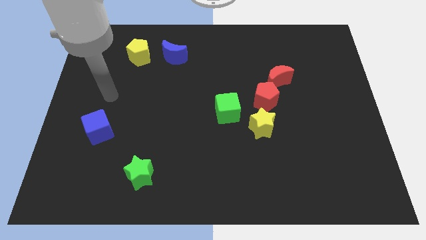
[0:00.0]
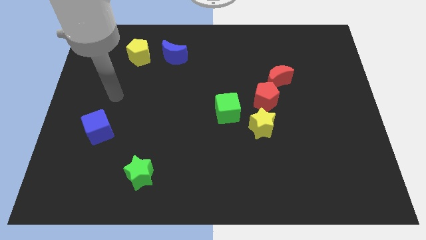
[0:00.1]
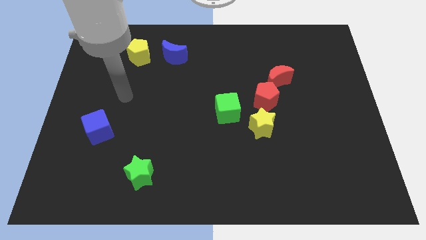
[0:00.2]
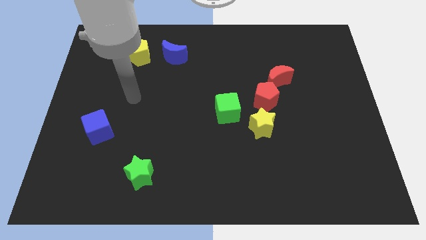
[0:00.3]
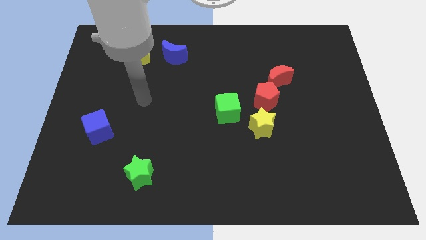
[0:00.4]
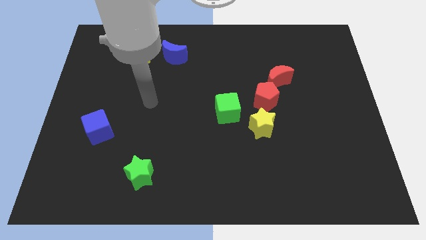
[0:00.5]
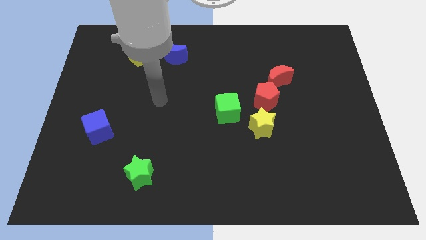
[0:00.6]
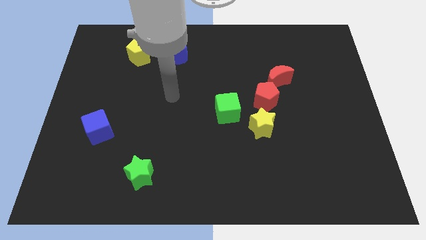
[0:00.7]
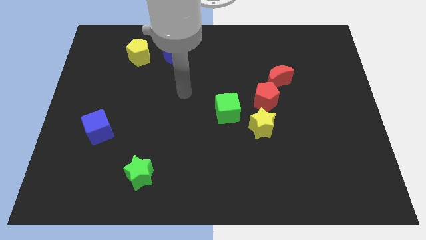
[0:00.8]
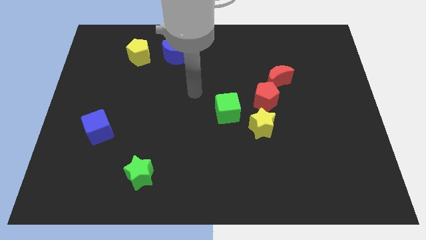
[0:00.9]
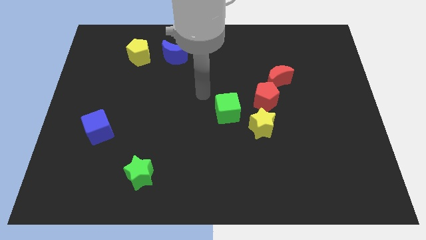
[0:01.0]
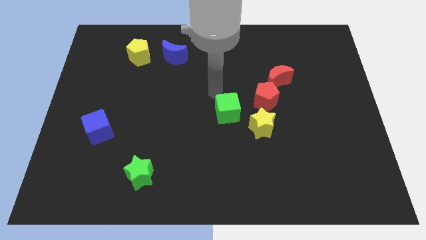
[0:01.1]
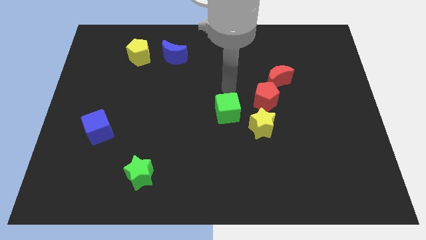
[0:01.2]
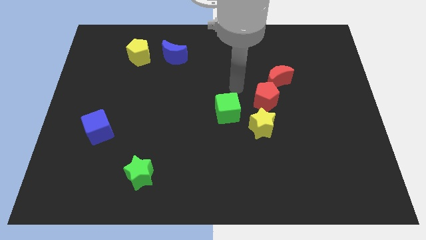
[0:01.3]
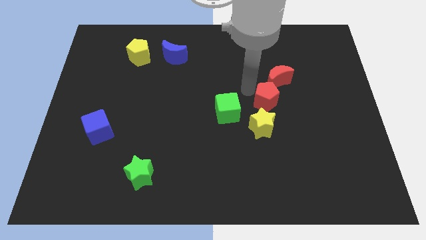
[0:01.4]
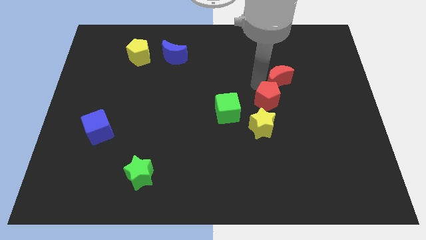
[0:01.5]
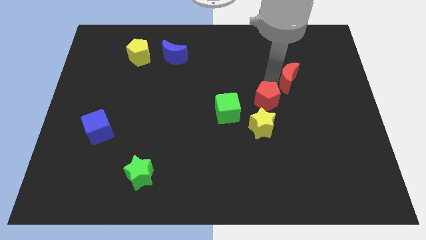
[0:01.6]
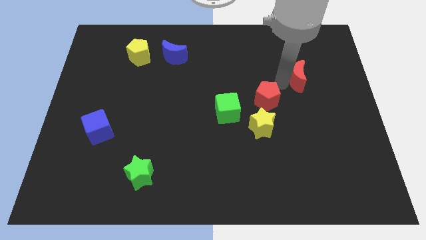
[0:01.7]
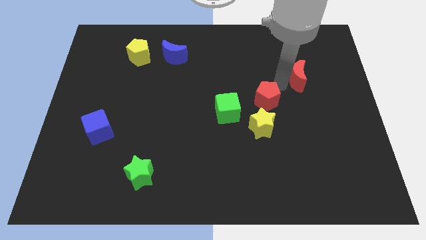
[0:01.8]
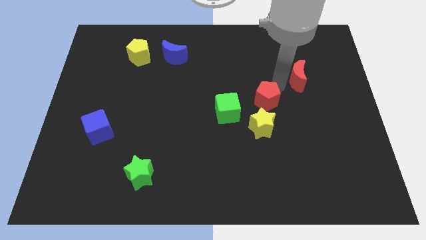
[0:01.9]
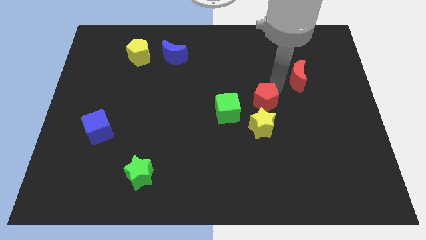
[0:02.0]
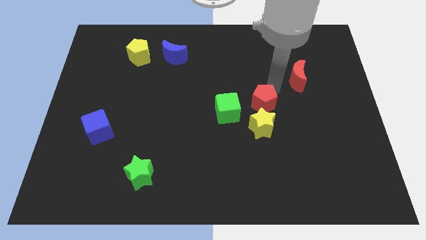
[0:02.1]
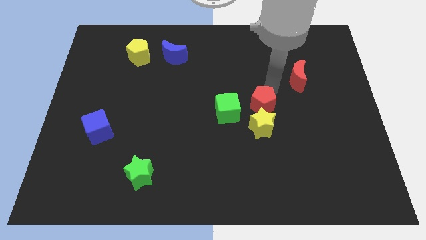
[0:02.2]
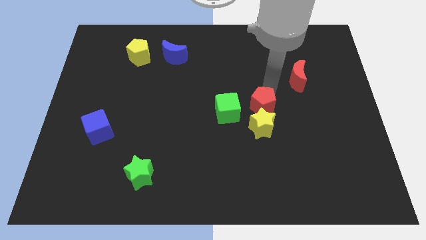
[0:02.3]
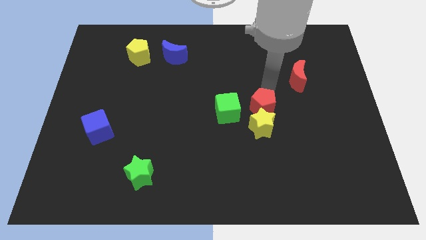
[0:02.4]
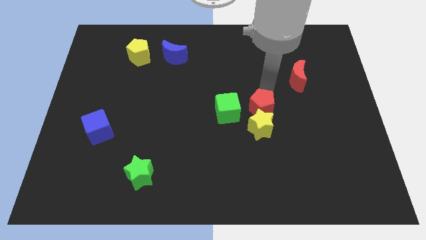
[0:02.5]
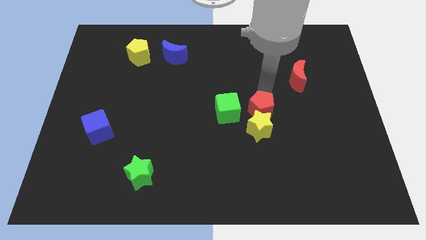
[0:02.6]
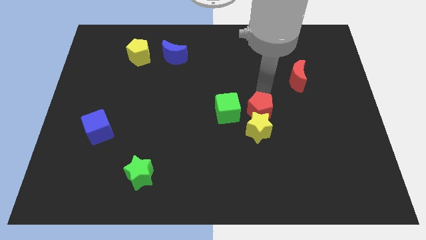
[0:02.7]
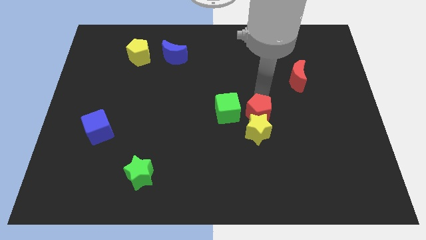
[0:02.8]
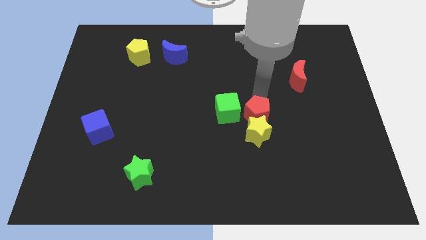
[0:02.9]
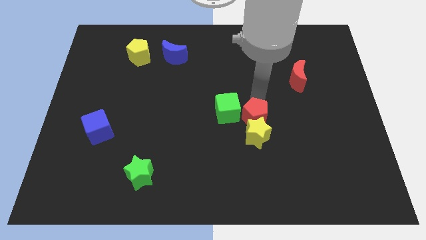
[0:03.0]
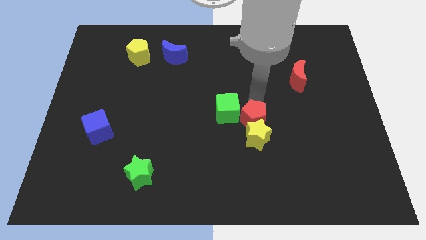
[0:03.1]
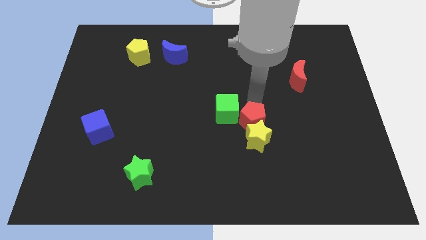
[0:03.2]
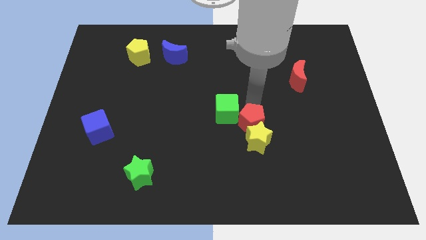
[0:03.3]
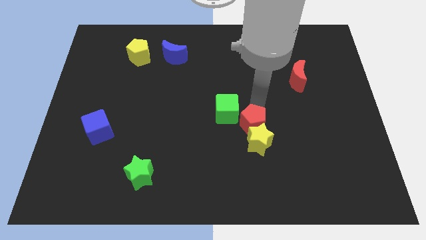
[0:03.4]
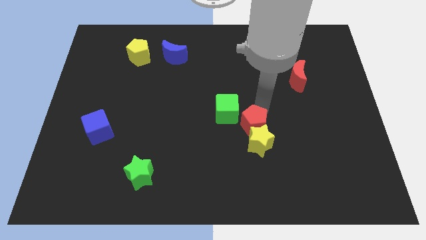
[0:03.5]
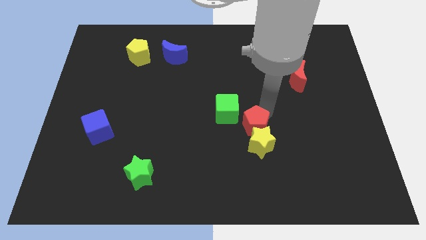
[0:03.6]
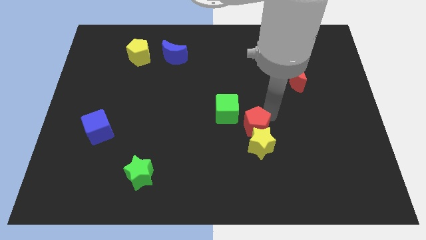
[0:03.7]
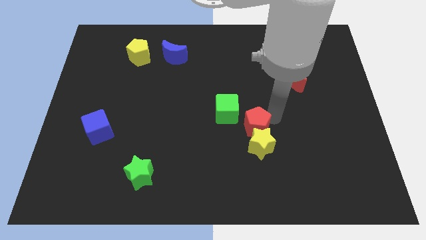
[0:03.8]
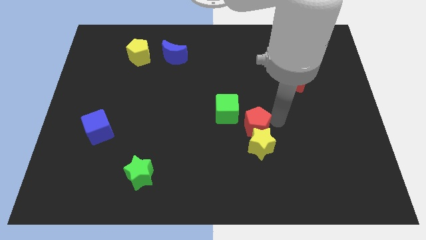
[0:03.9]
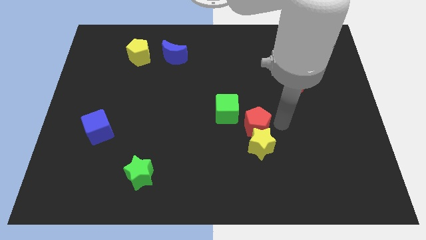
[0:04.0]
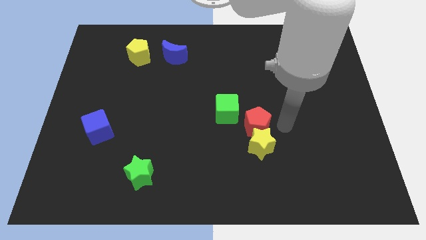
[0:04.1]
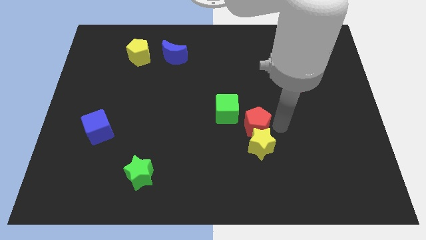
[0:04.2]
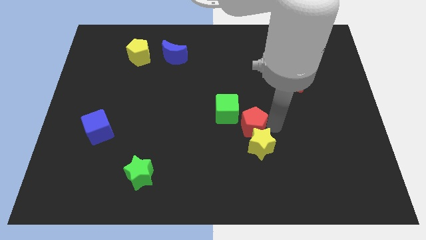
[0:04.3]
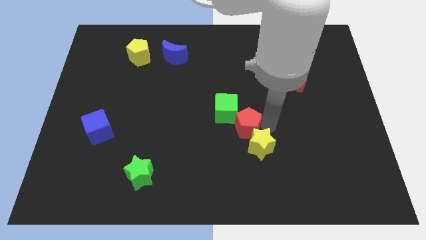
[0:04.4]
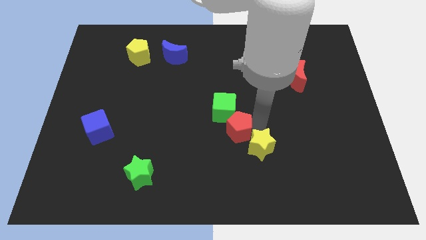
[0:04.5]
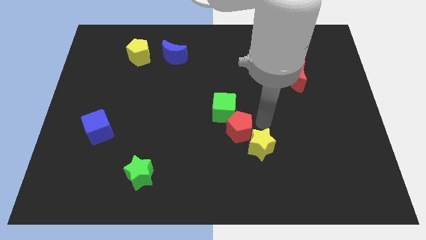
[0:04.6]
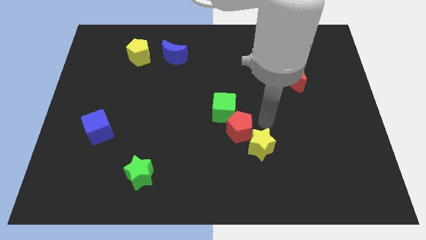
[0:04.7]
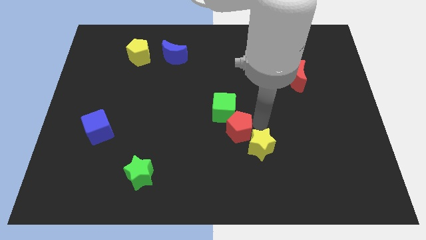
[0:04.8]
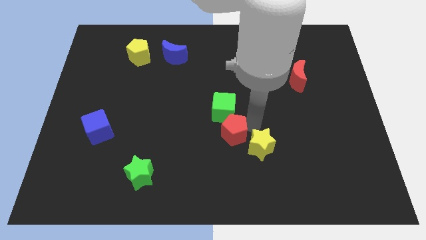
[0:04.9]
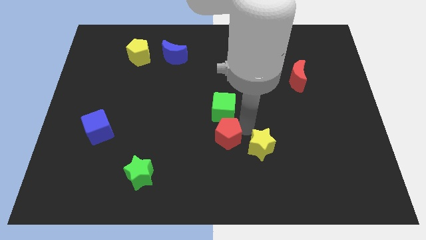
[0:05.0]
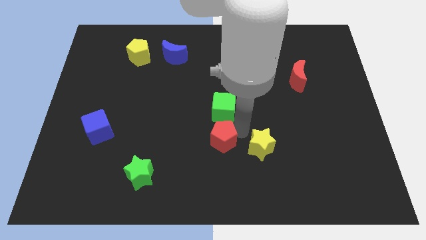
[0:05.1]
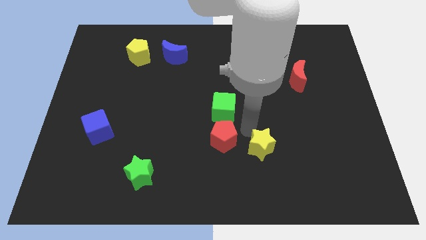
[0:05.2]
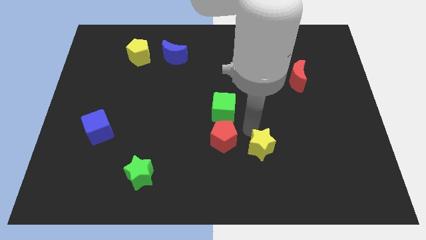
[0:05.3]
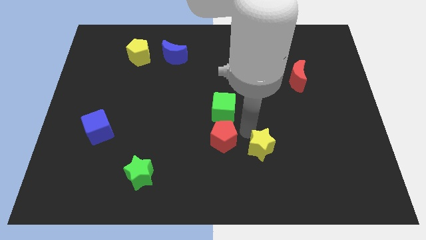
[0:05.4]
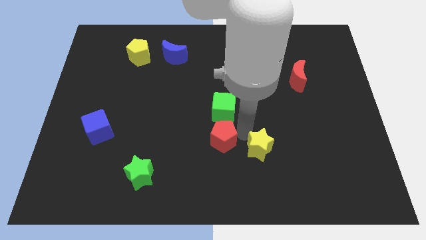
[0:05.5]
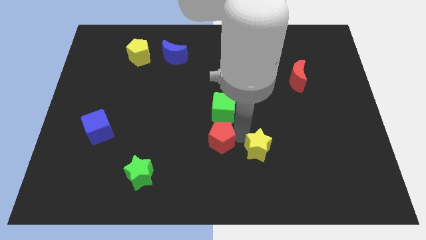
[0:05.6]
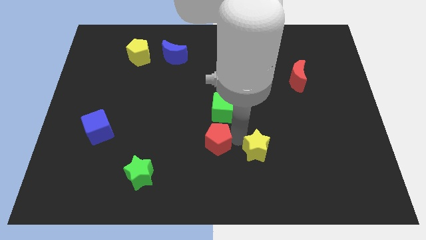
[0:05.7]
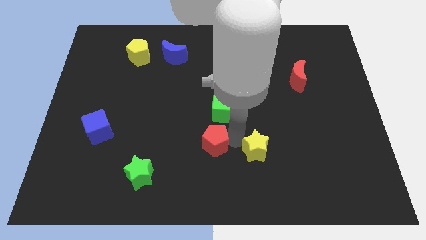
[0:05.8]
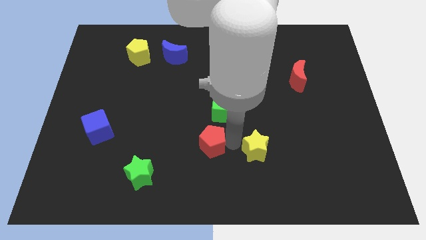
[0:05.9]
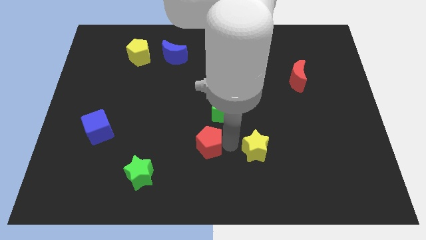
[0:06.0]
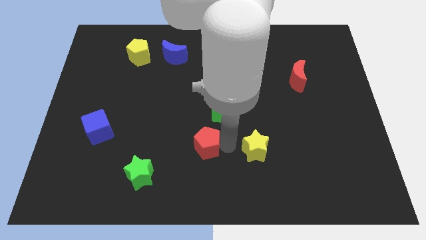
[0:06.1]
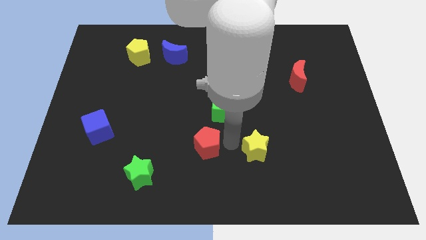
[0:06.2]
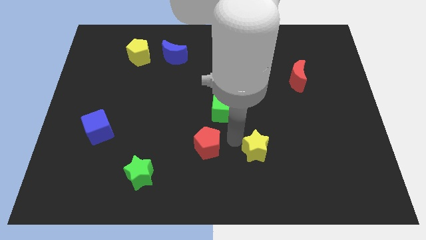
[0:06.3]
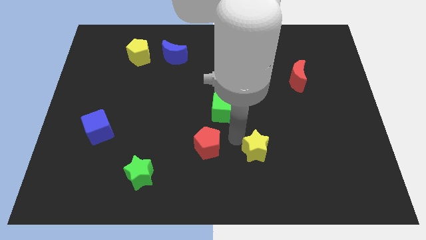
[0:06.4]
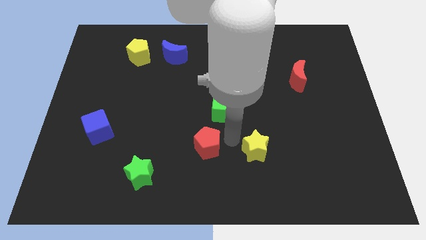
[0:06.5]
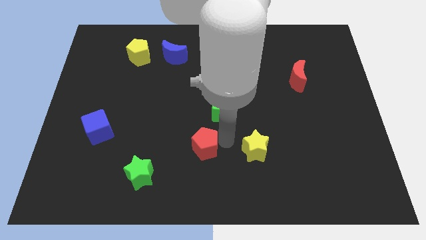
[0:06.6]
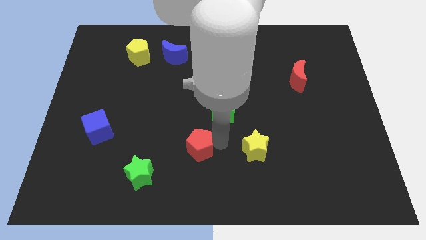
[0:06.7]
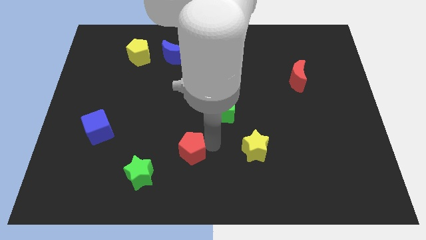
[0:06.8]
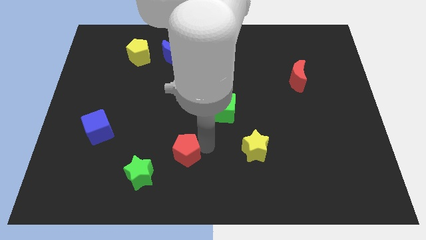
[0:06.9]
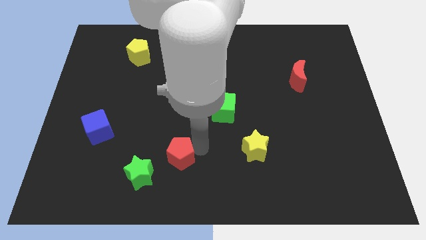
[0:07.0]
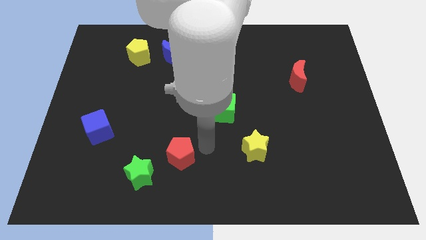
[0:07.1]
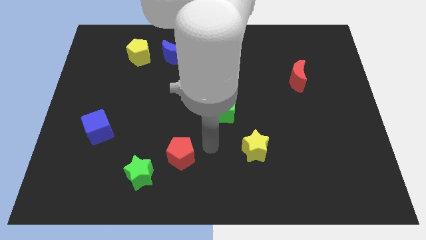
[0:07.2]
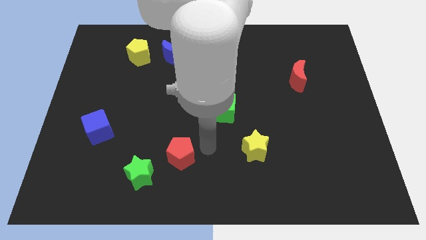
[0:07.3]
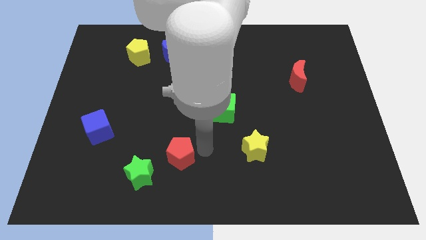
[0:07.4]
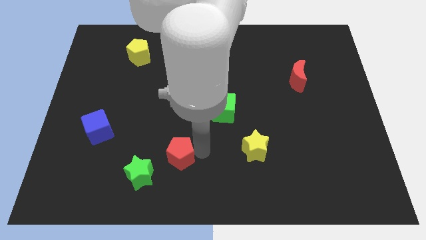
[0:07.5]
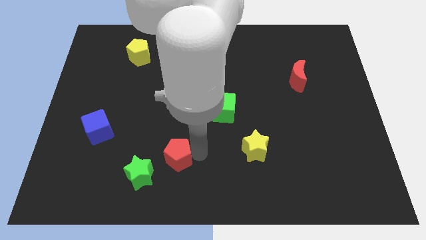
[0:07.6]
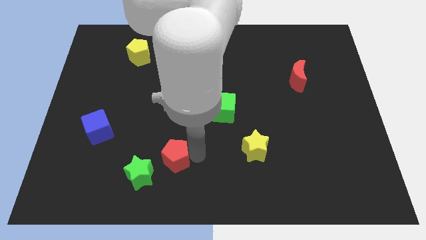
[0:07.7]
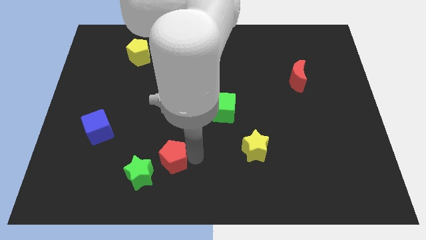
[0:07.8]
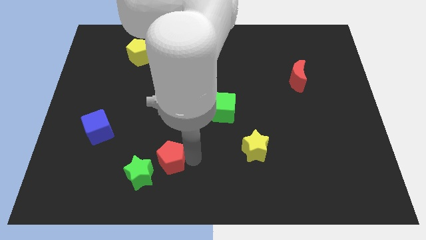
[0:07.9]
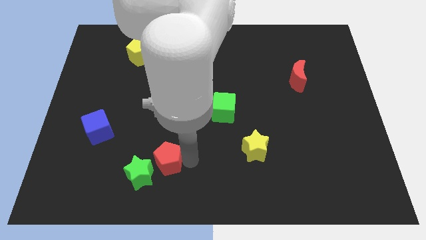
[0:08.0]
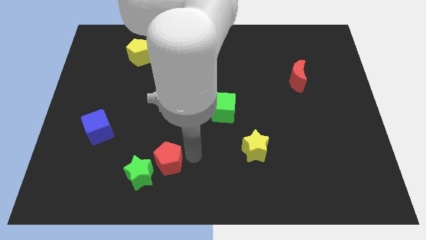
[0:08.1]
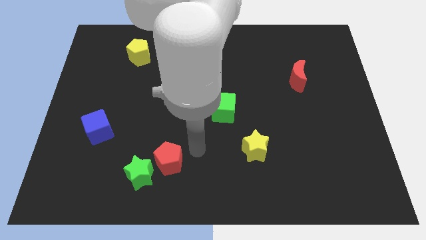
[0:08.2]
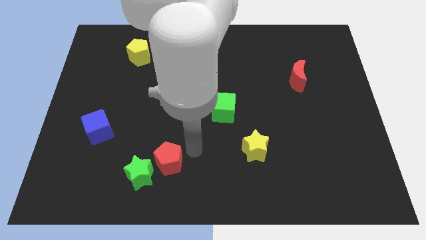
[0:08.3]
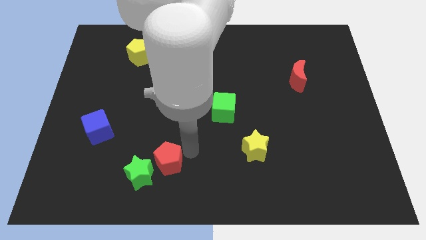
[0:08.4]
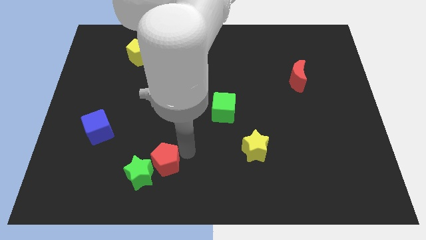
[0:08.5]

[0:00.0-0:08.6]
put the red pentagon towards the green star
